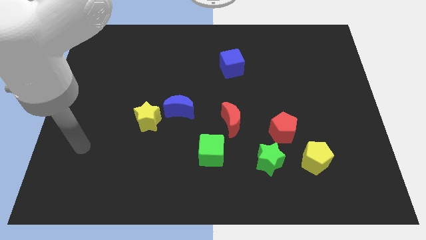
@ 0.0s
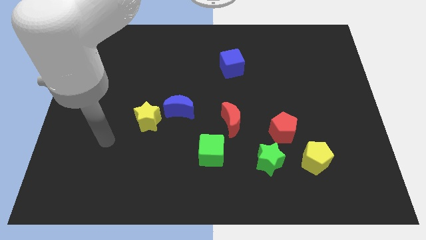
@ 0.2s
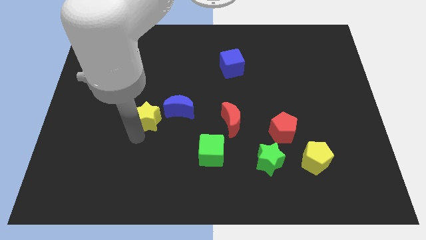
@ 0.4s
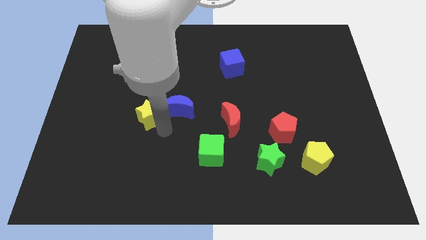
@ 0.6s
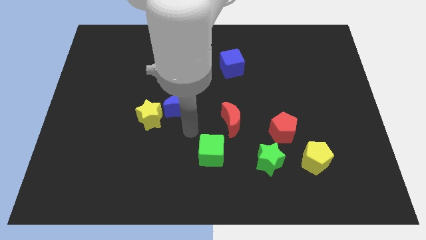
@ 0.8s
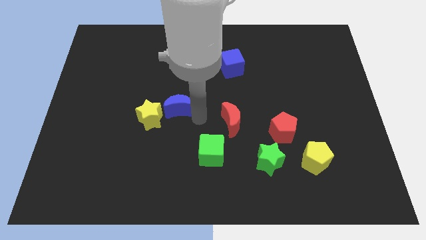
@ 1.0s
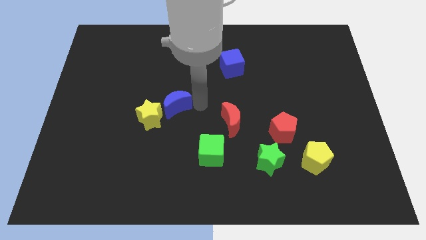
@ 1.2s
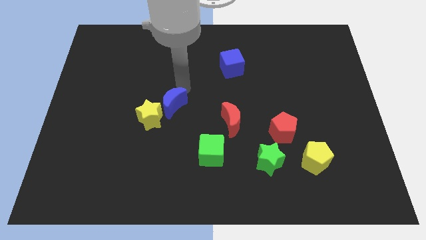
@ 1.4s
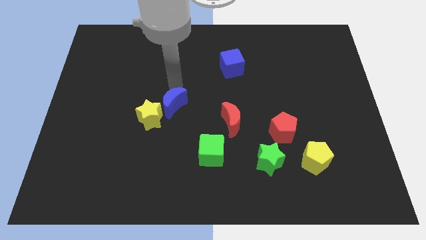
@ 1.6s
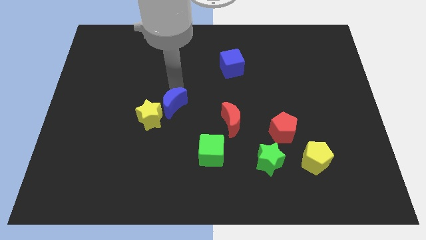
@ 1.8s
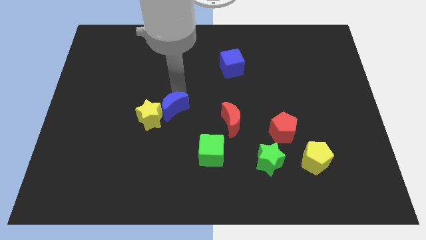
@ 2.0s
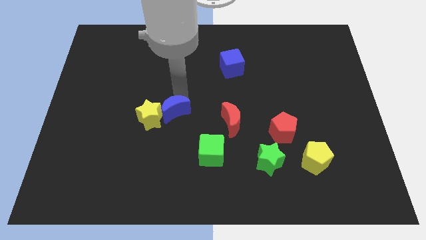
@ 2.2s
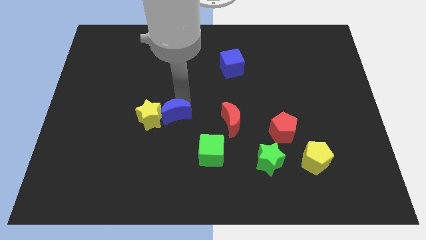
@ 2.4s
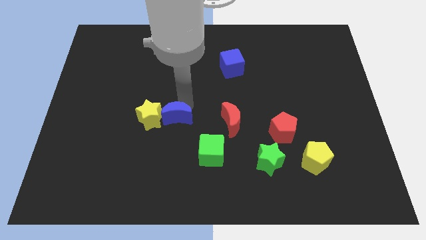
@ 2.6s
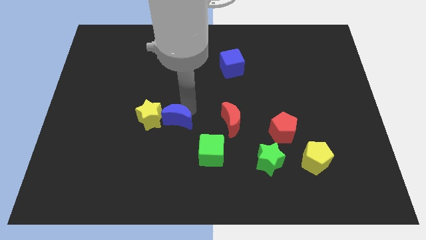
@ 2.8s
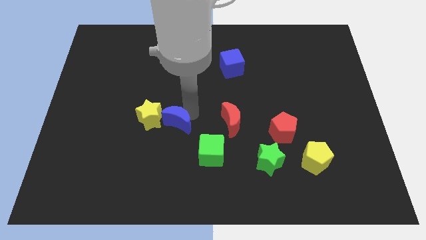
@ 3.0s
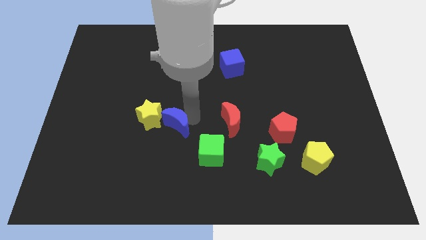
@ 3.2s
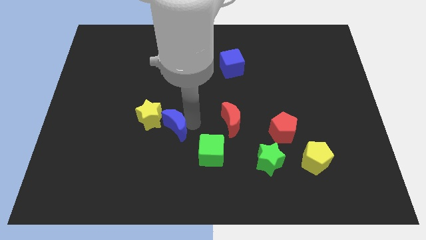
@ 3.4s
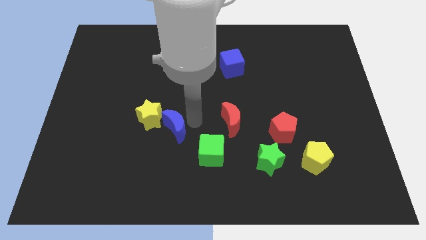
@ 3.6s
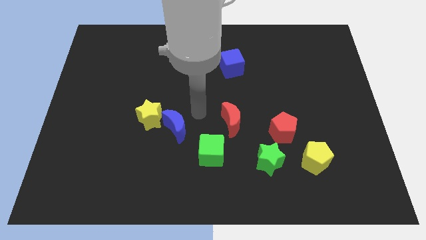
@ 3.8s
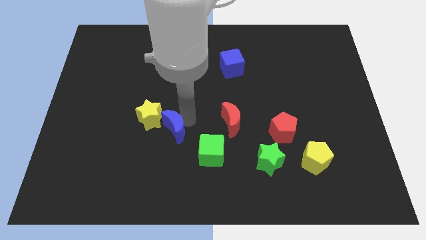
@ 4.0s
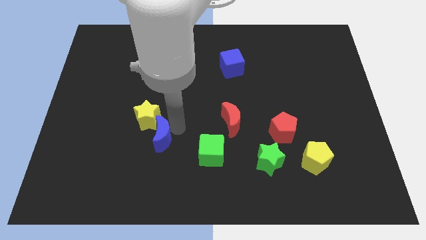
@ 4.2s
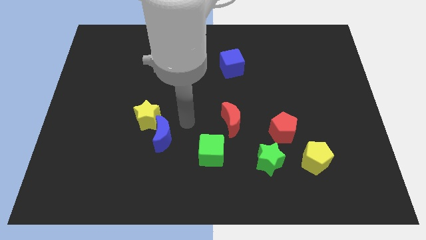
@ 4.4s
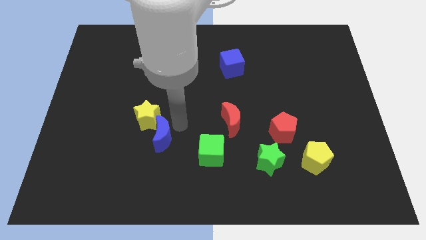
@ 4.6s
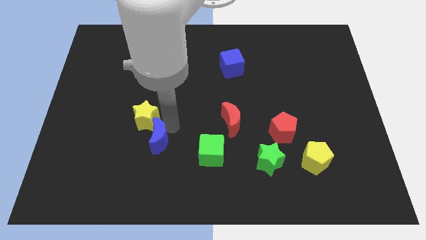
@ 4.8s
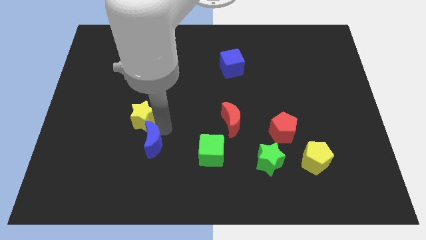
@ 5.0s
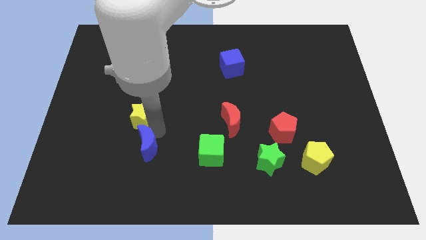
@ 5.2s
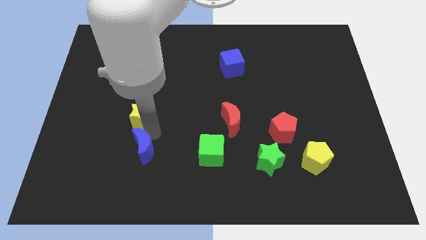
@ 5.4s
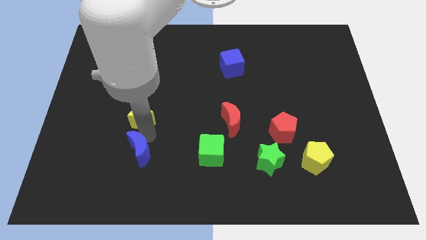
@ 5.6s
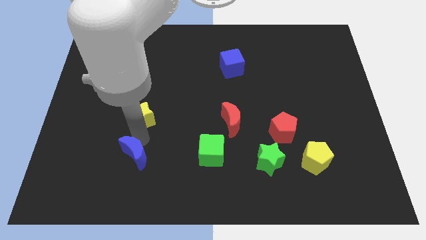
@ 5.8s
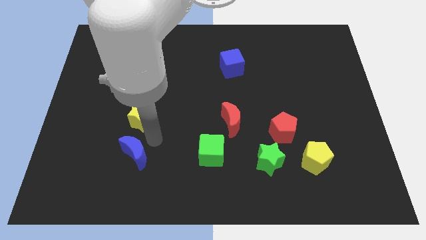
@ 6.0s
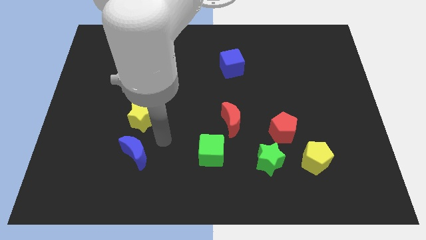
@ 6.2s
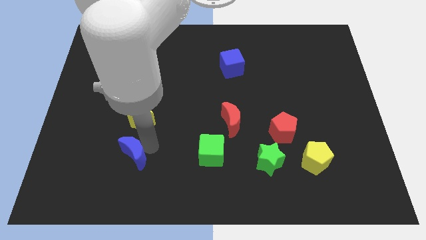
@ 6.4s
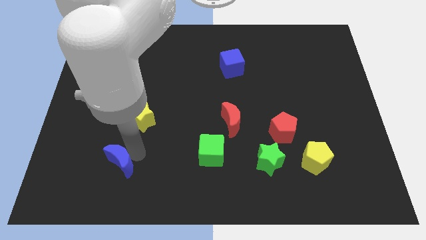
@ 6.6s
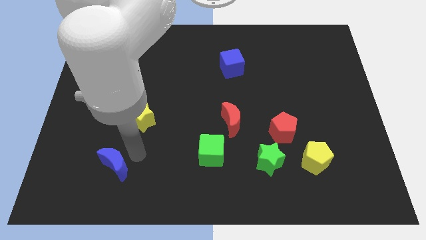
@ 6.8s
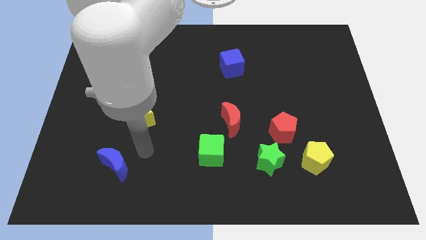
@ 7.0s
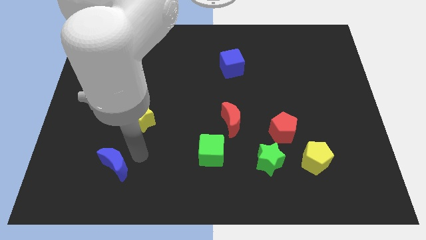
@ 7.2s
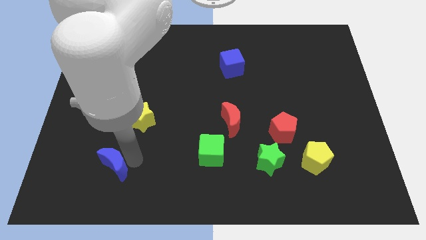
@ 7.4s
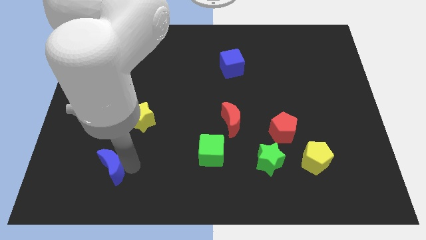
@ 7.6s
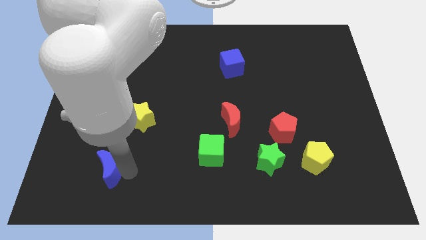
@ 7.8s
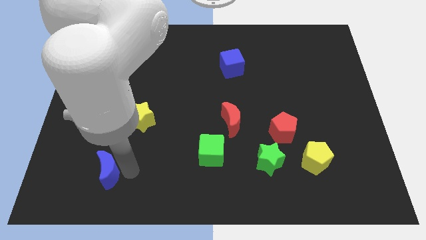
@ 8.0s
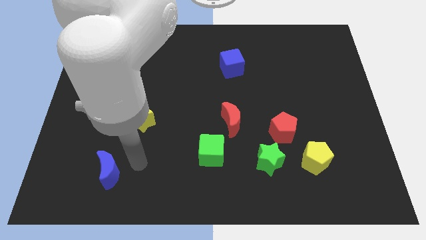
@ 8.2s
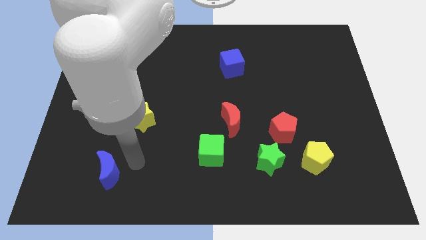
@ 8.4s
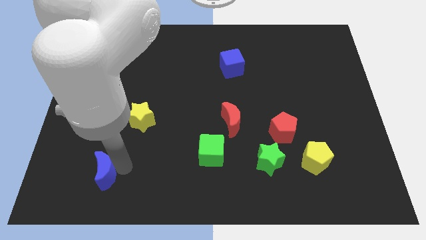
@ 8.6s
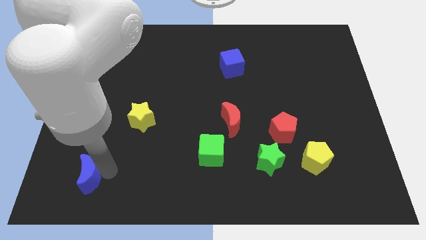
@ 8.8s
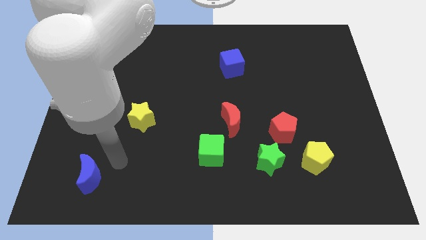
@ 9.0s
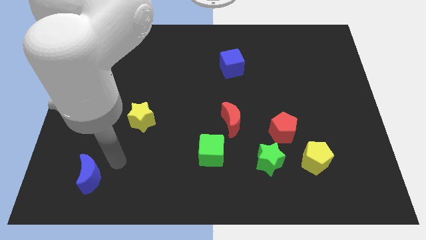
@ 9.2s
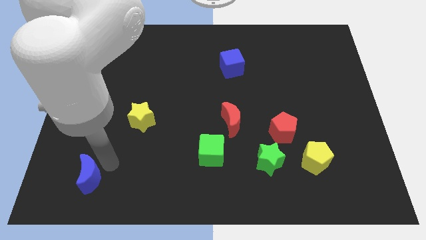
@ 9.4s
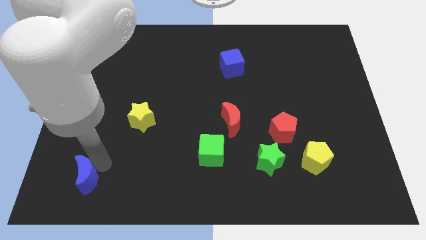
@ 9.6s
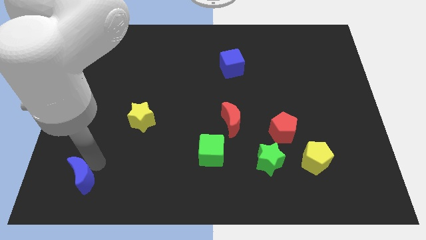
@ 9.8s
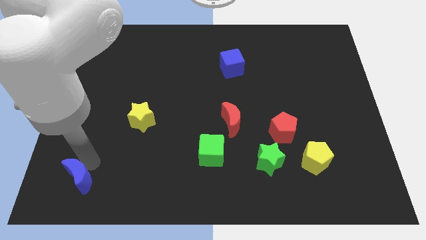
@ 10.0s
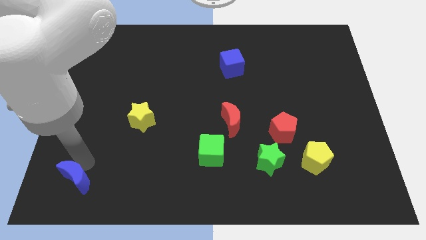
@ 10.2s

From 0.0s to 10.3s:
push the blue moon to the bottom left corner

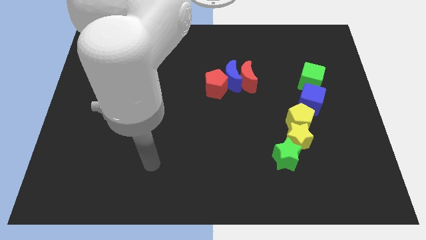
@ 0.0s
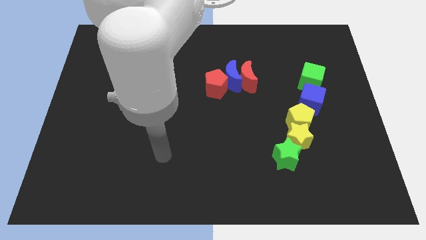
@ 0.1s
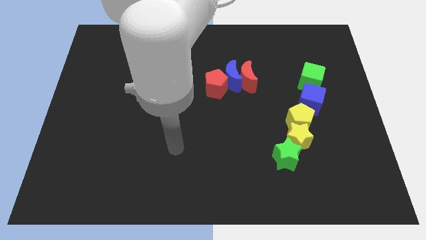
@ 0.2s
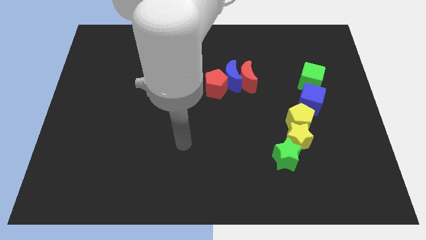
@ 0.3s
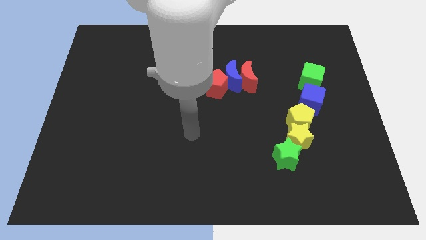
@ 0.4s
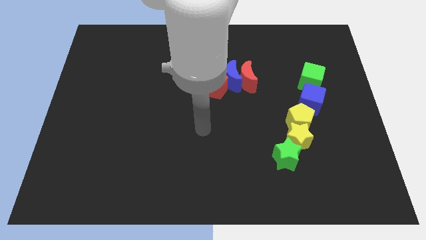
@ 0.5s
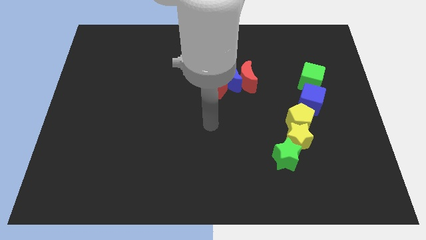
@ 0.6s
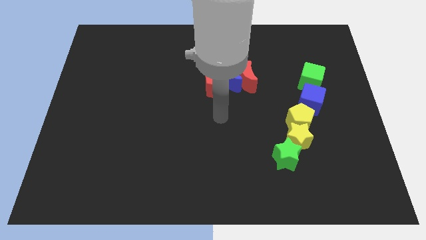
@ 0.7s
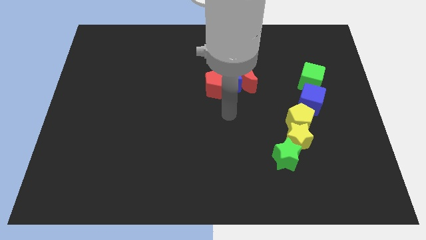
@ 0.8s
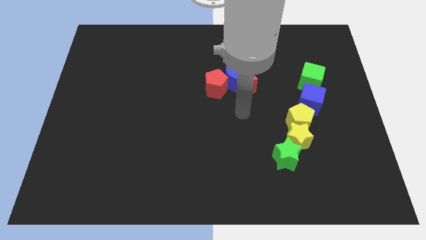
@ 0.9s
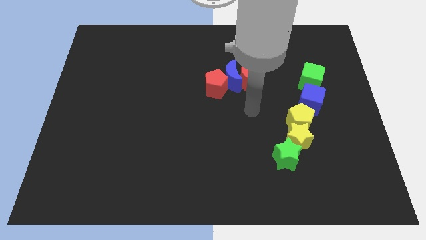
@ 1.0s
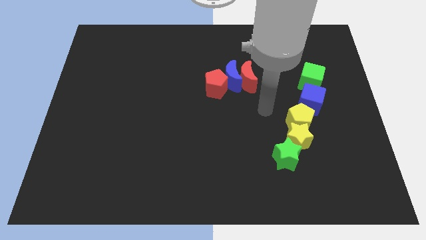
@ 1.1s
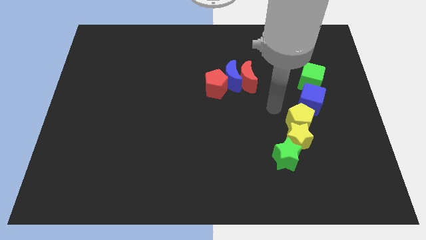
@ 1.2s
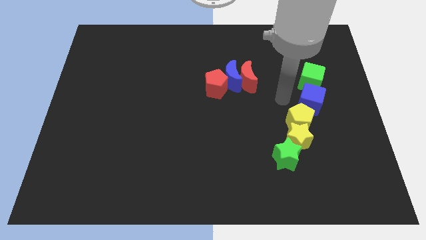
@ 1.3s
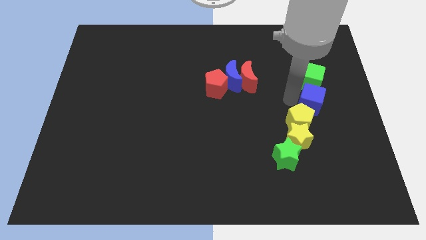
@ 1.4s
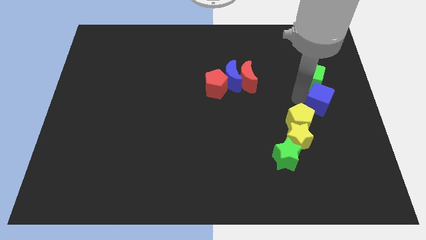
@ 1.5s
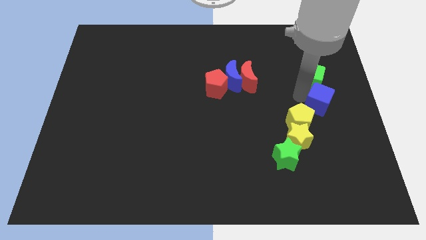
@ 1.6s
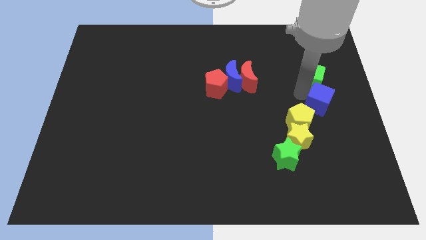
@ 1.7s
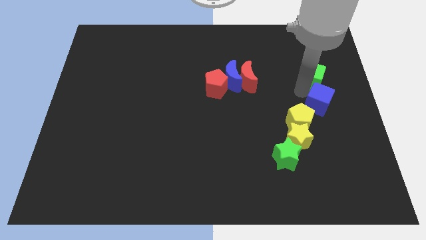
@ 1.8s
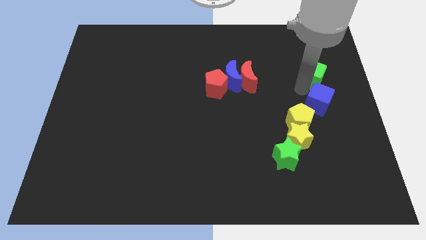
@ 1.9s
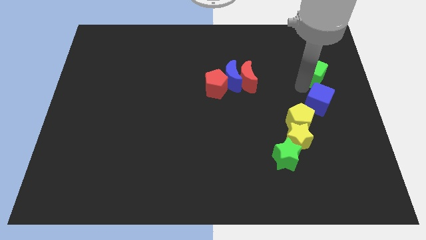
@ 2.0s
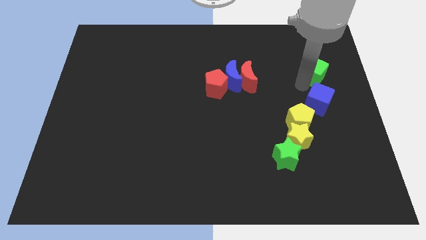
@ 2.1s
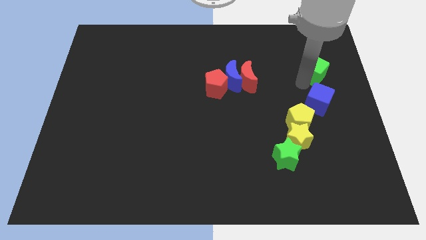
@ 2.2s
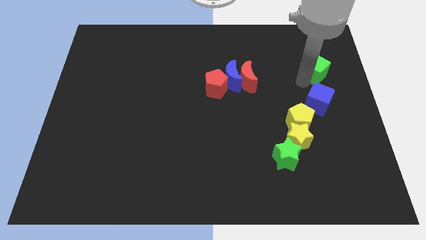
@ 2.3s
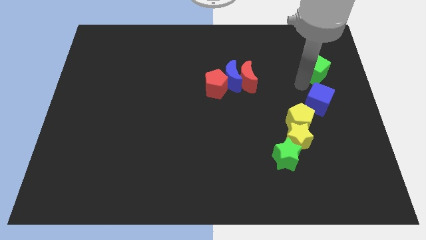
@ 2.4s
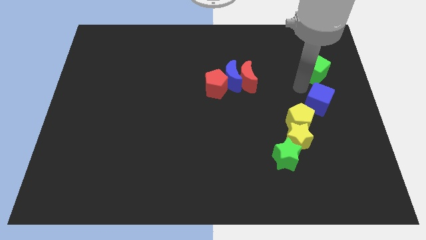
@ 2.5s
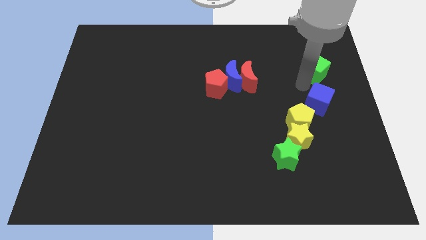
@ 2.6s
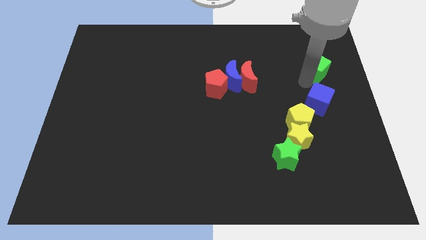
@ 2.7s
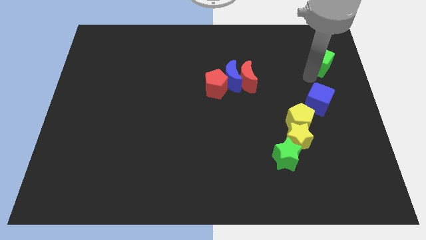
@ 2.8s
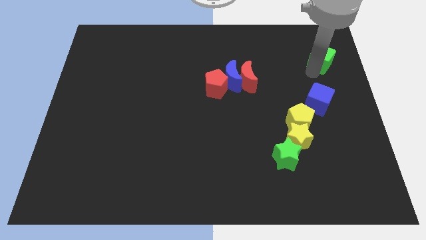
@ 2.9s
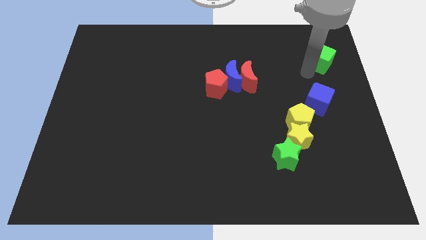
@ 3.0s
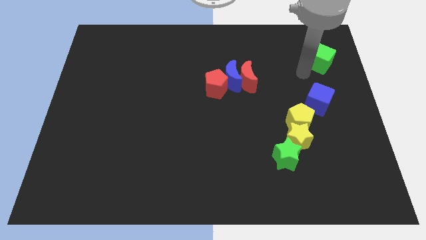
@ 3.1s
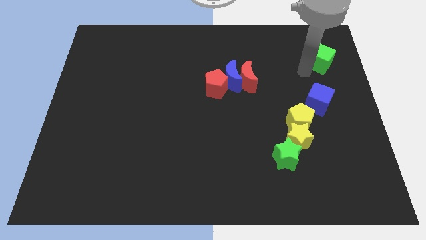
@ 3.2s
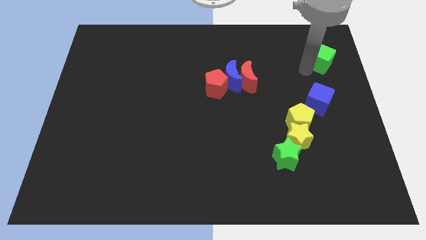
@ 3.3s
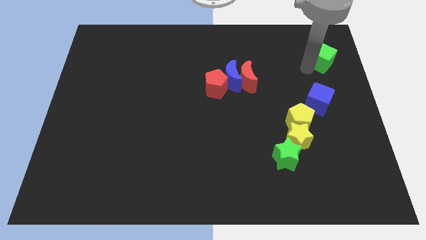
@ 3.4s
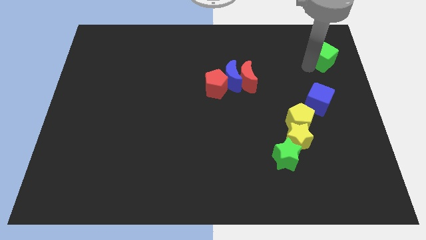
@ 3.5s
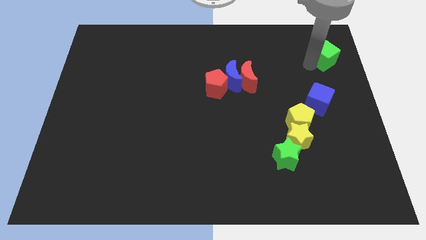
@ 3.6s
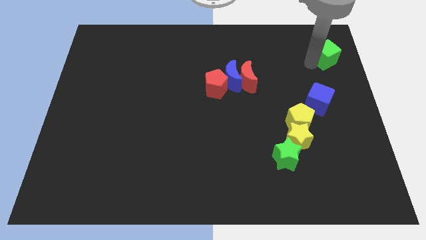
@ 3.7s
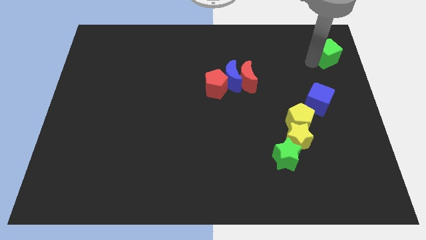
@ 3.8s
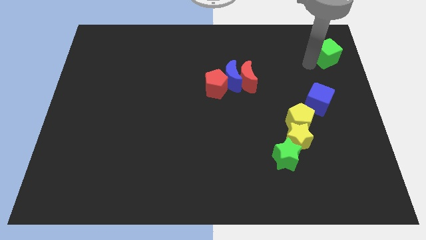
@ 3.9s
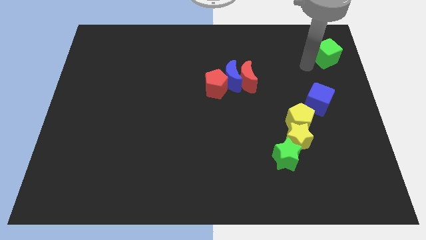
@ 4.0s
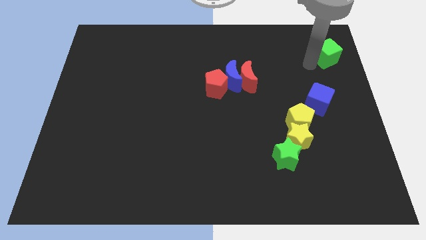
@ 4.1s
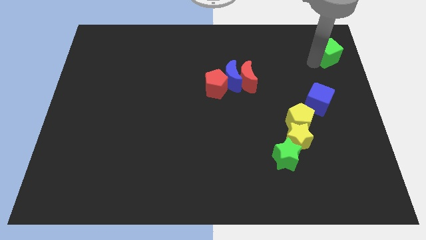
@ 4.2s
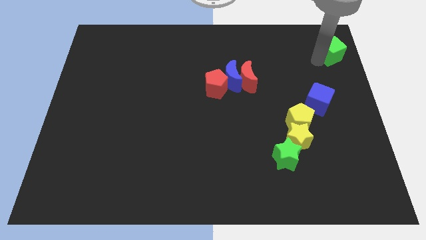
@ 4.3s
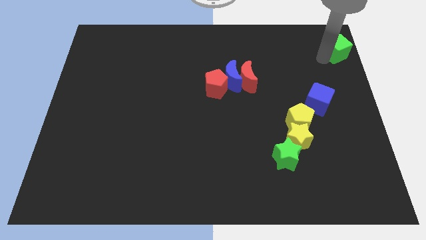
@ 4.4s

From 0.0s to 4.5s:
push the green cube to the top right corner
